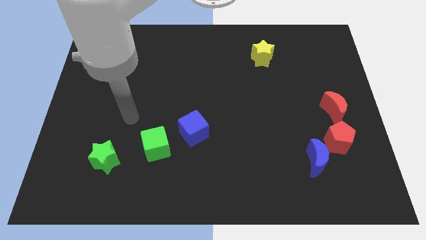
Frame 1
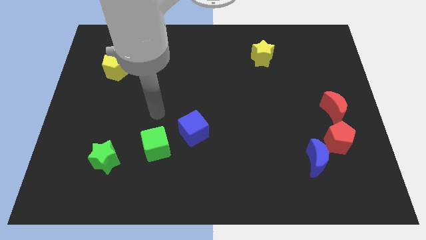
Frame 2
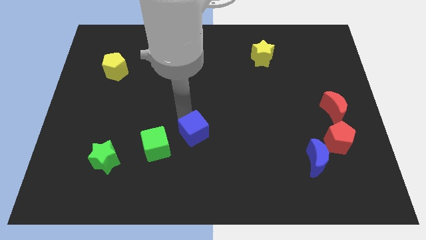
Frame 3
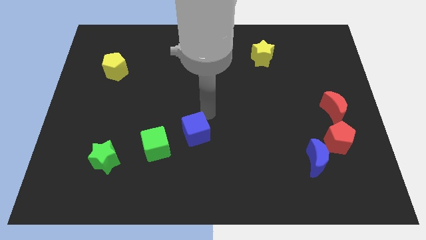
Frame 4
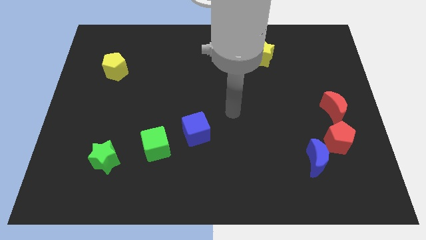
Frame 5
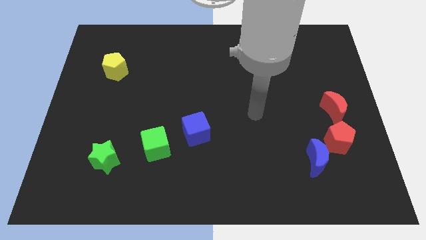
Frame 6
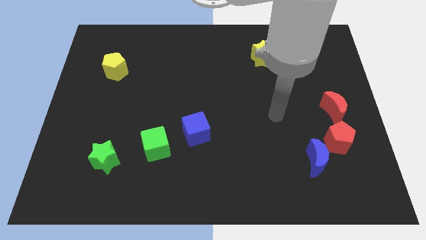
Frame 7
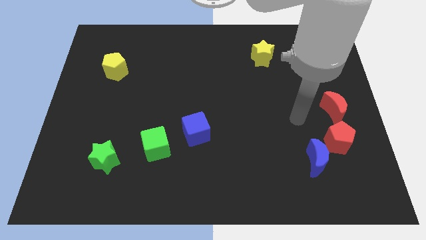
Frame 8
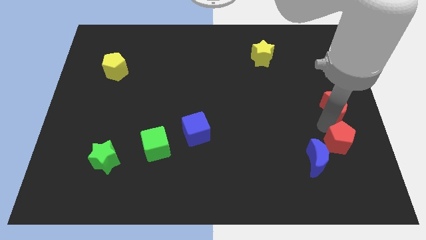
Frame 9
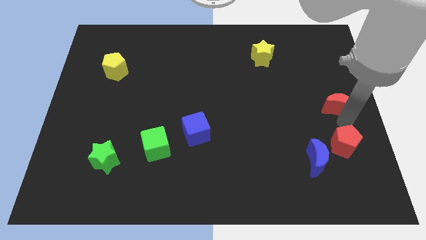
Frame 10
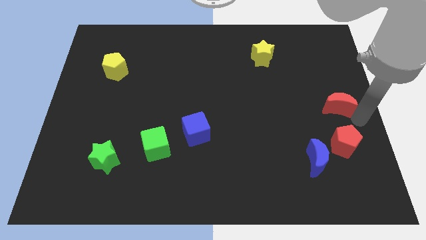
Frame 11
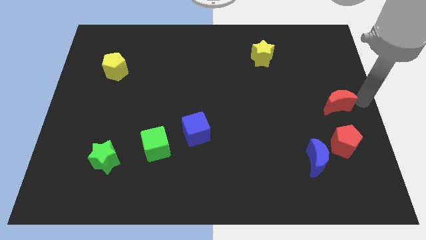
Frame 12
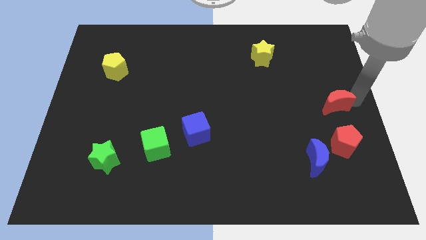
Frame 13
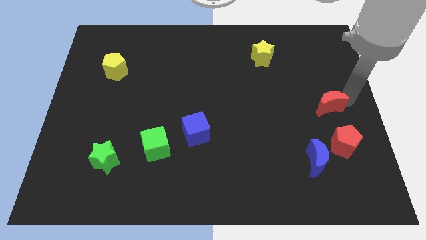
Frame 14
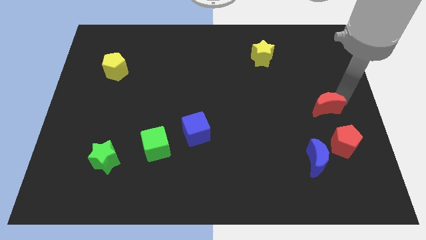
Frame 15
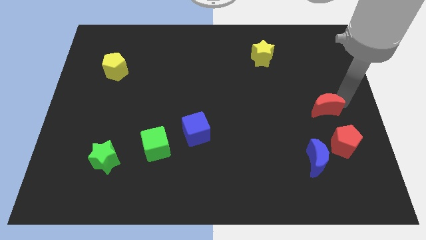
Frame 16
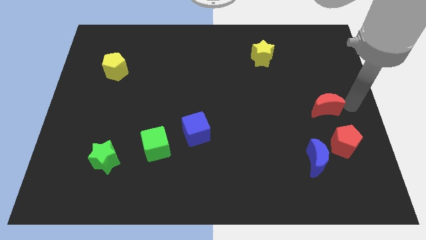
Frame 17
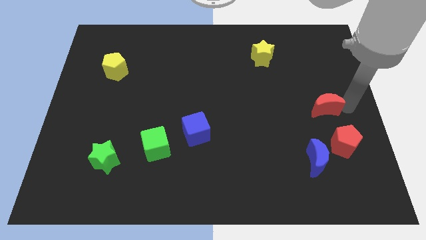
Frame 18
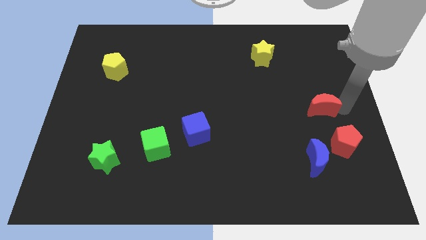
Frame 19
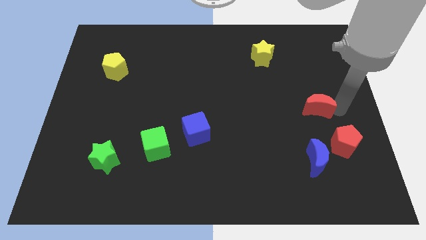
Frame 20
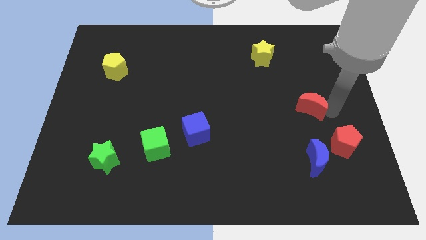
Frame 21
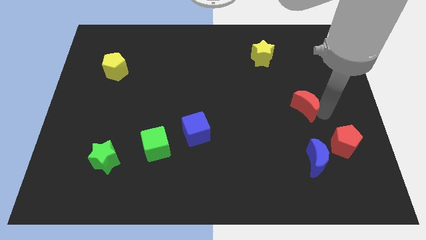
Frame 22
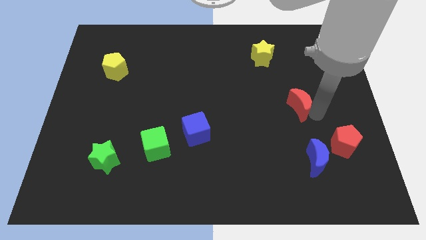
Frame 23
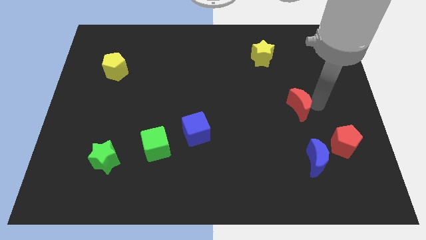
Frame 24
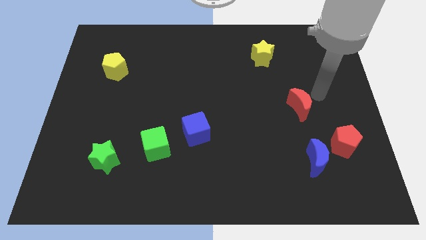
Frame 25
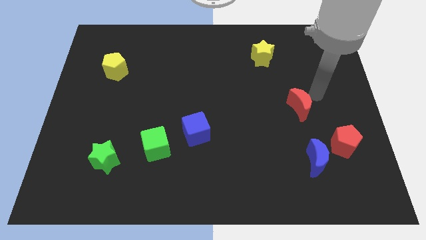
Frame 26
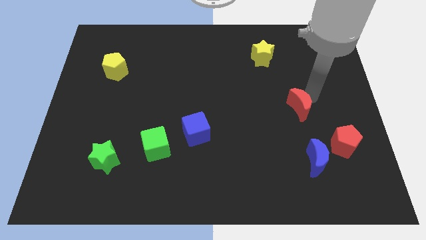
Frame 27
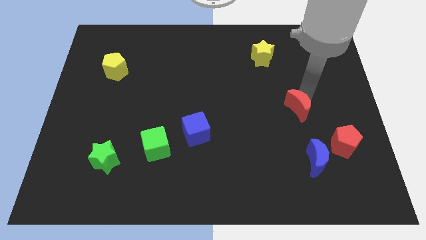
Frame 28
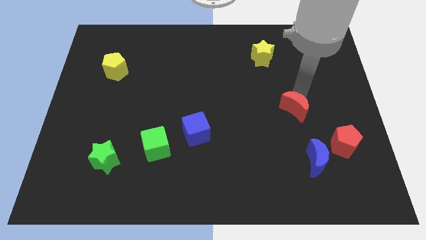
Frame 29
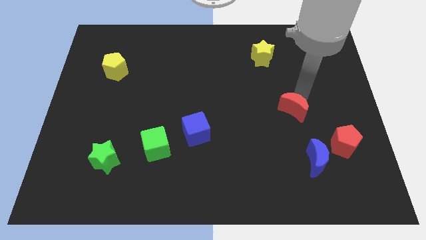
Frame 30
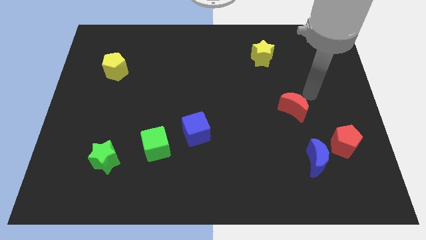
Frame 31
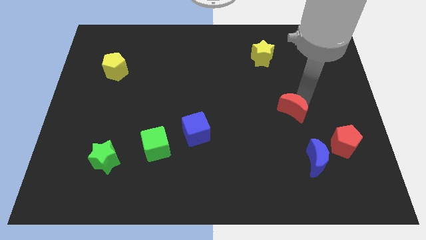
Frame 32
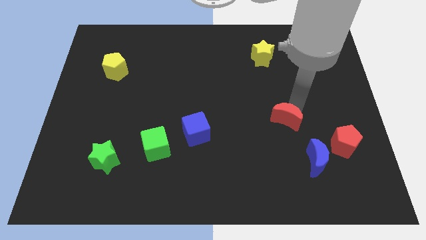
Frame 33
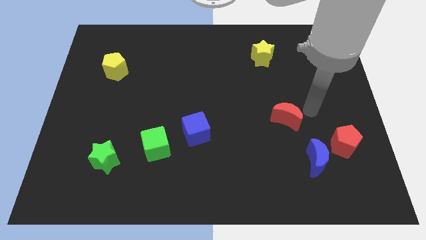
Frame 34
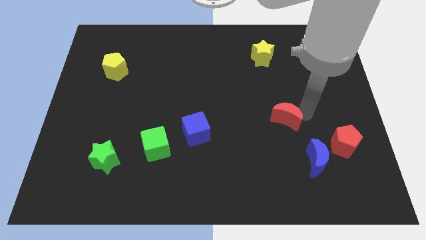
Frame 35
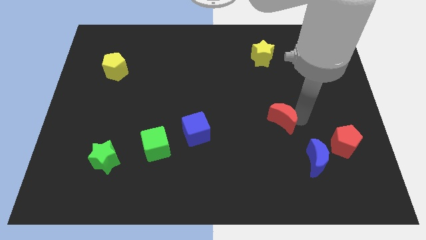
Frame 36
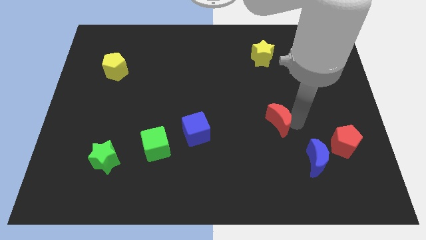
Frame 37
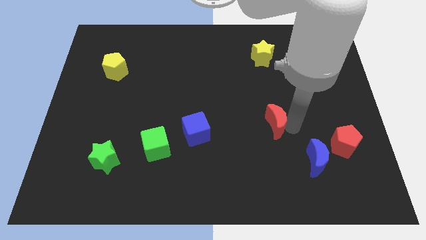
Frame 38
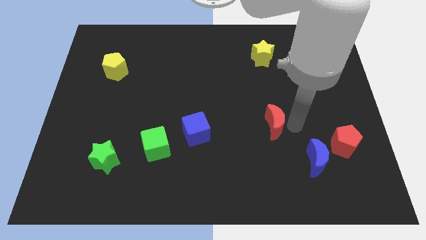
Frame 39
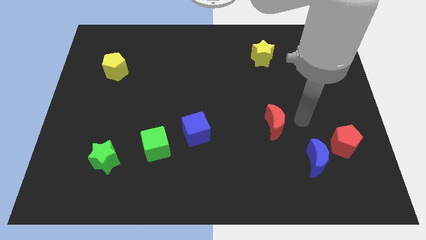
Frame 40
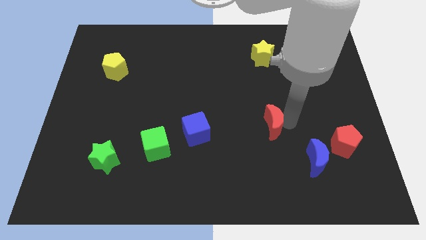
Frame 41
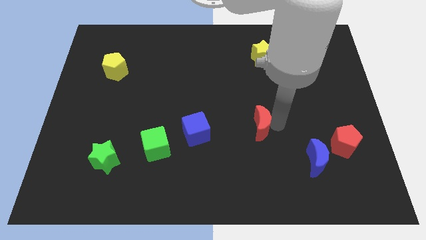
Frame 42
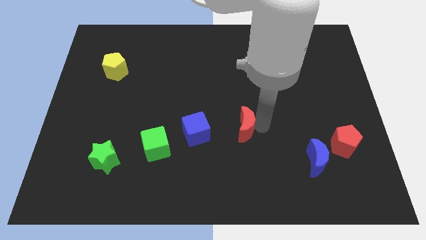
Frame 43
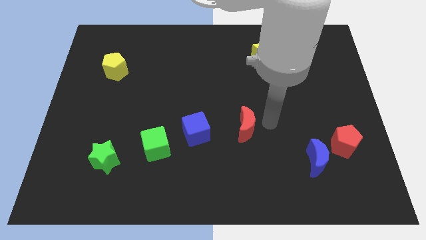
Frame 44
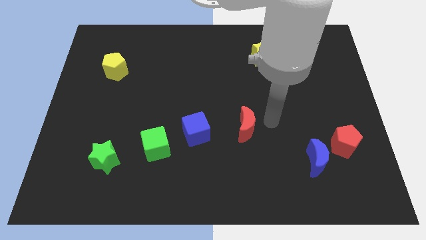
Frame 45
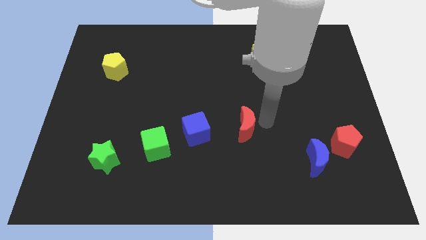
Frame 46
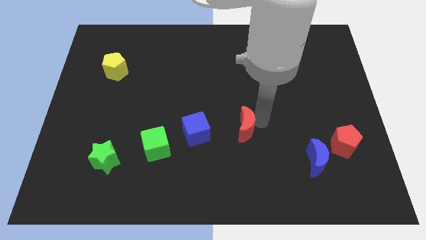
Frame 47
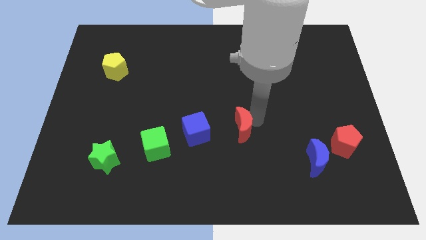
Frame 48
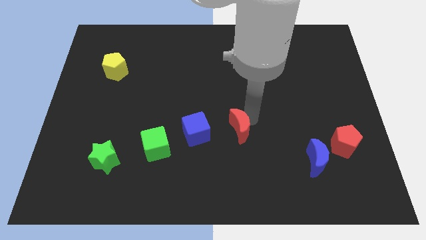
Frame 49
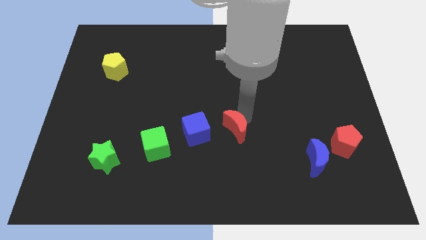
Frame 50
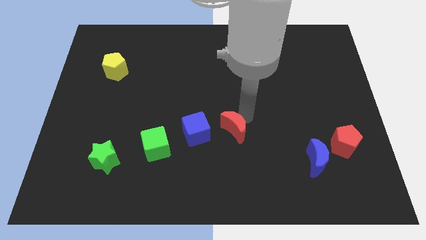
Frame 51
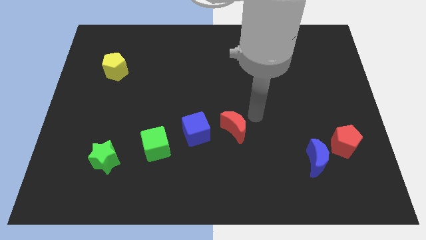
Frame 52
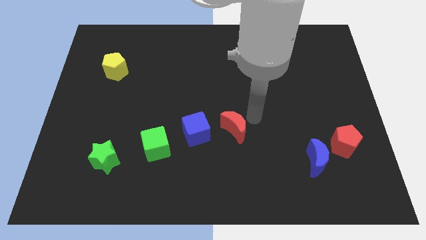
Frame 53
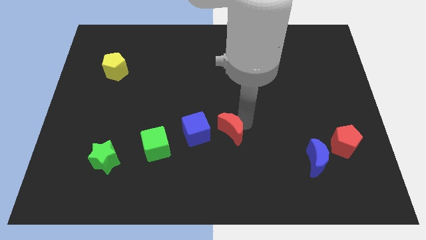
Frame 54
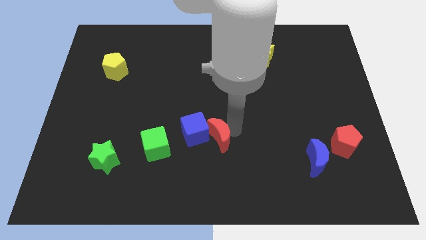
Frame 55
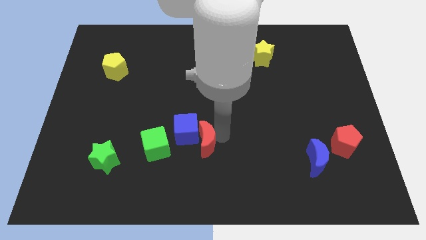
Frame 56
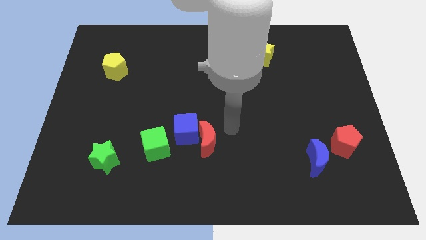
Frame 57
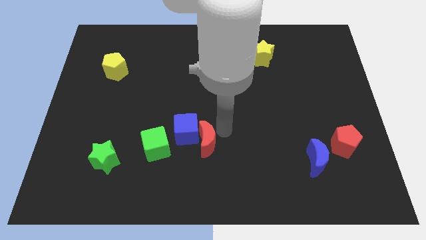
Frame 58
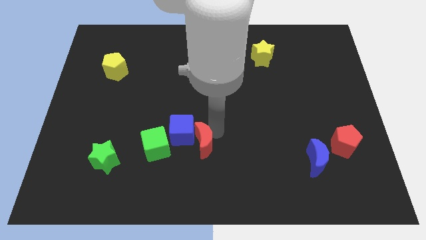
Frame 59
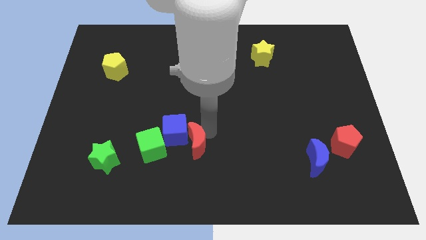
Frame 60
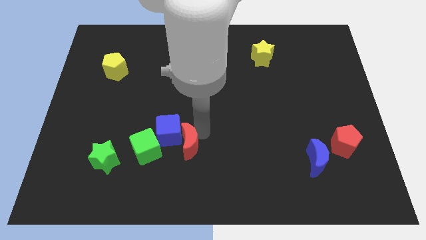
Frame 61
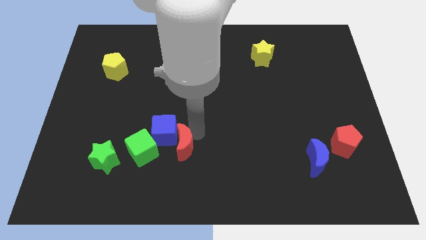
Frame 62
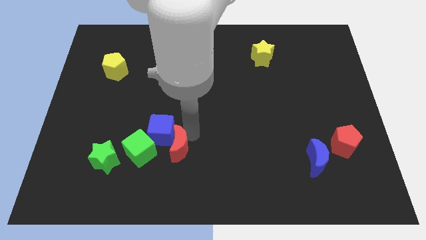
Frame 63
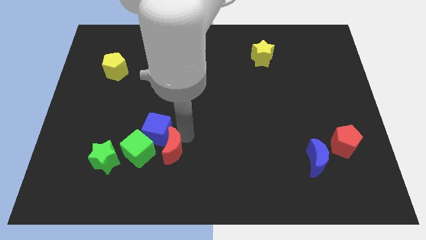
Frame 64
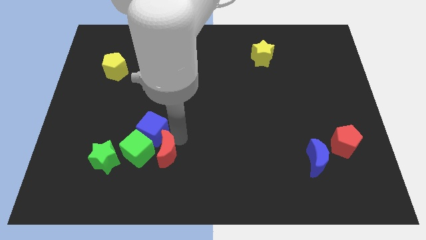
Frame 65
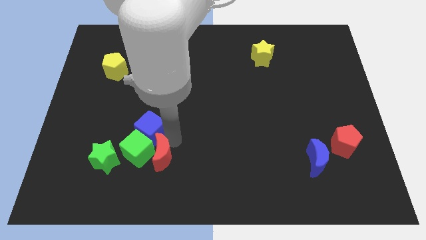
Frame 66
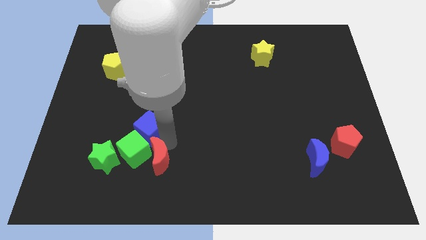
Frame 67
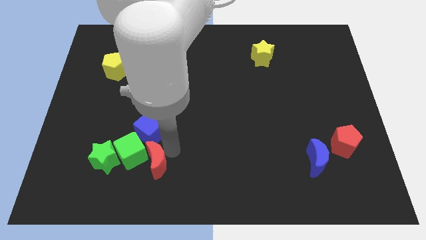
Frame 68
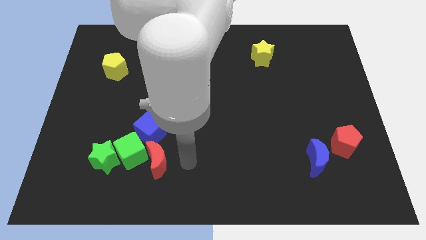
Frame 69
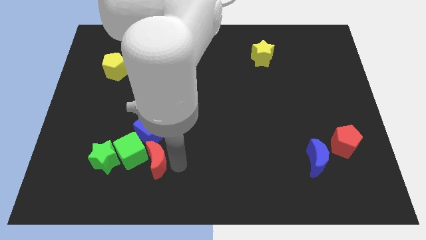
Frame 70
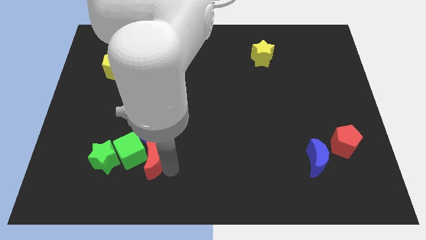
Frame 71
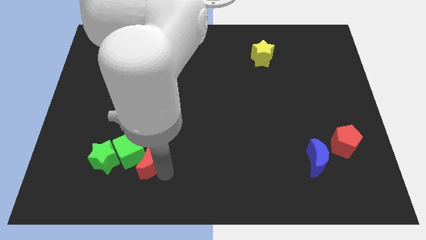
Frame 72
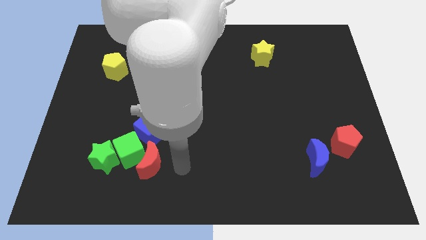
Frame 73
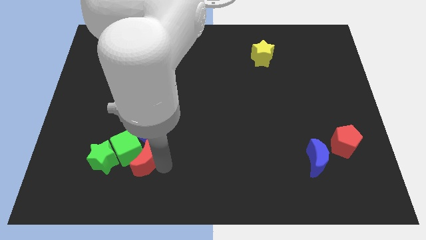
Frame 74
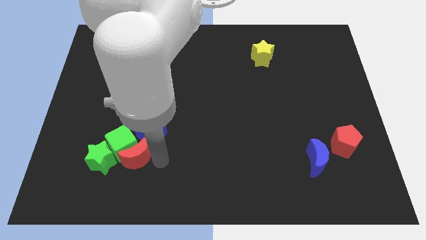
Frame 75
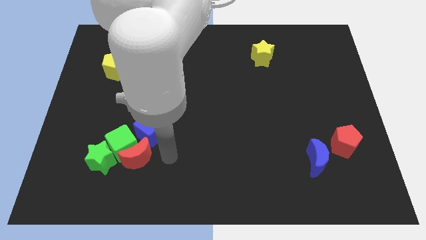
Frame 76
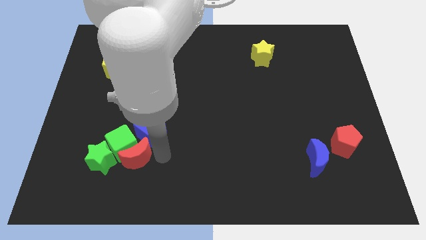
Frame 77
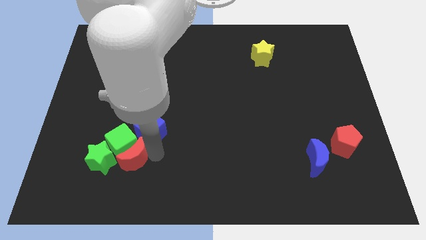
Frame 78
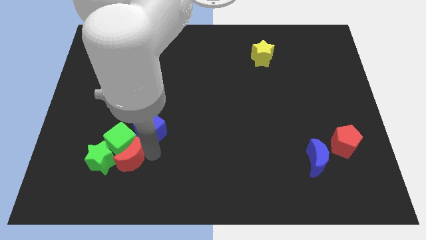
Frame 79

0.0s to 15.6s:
move the red moon close to the green star
